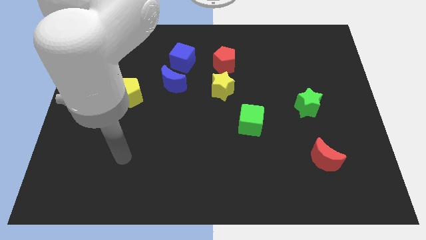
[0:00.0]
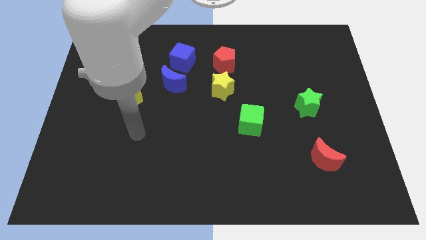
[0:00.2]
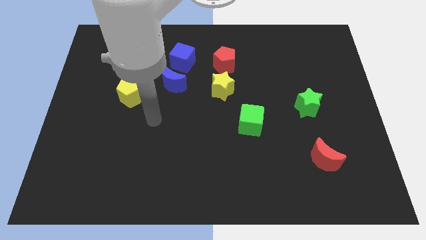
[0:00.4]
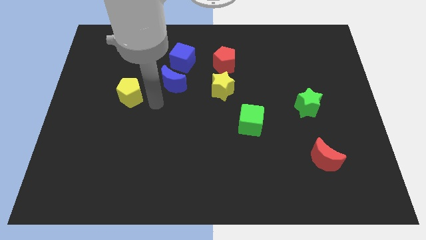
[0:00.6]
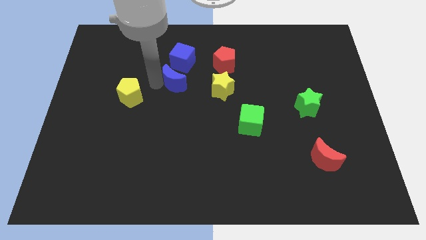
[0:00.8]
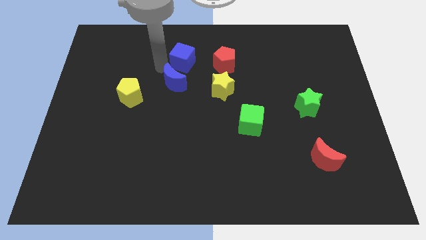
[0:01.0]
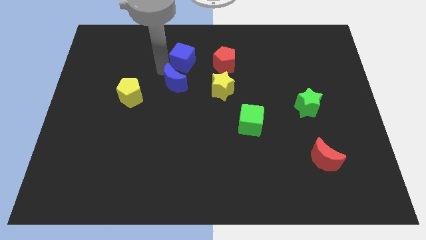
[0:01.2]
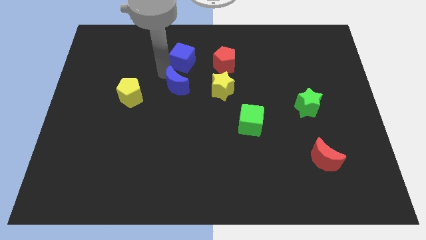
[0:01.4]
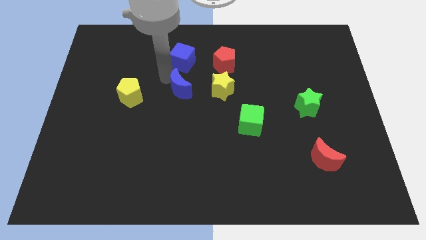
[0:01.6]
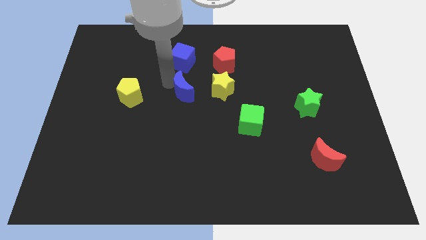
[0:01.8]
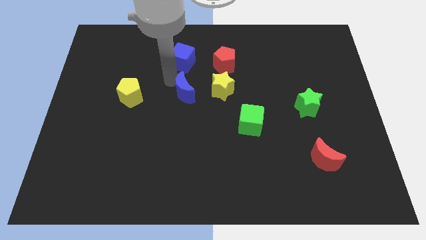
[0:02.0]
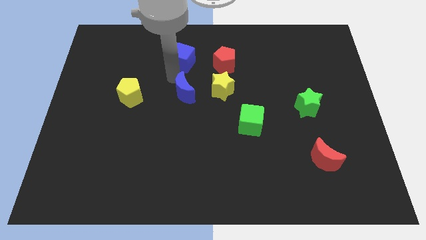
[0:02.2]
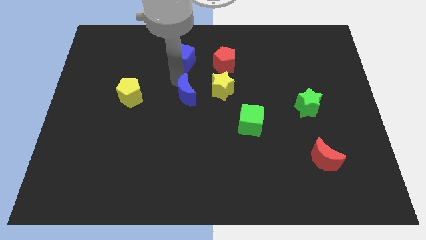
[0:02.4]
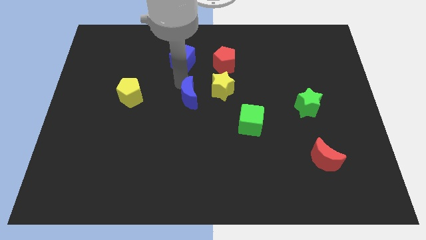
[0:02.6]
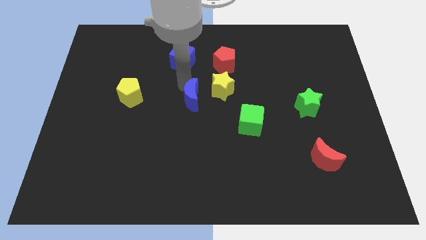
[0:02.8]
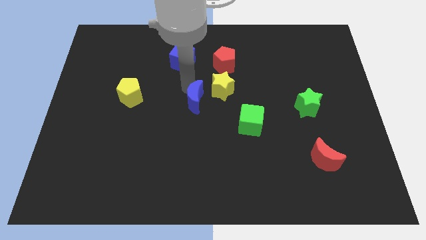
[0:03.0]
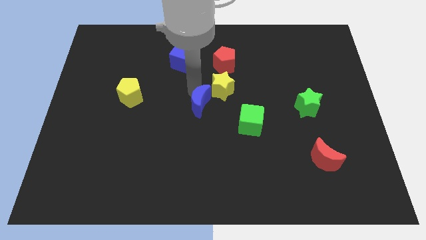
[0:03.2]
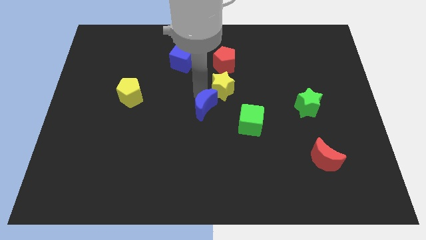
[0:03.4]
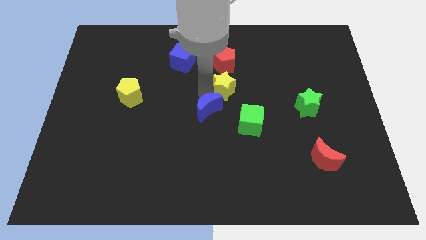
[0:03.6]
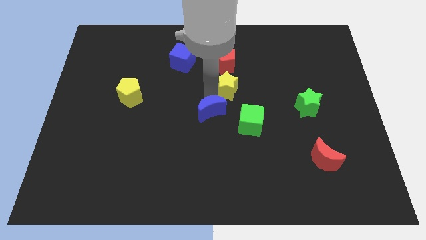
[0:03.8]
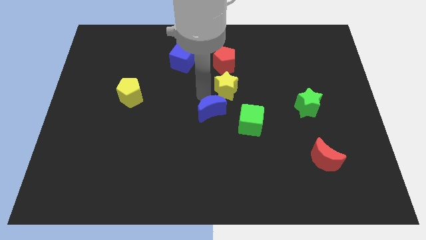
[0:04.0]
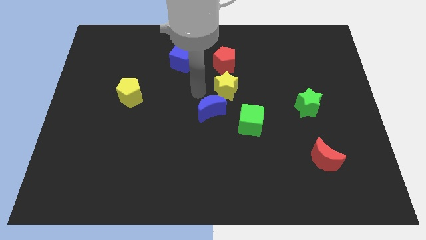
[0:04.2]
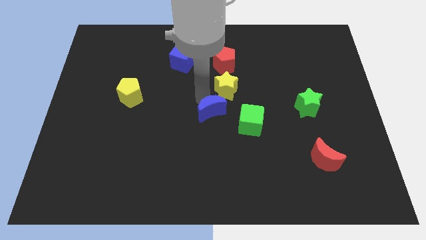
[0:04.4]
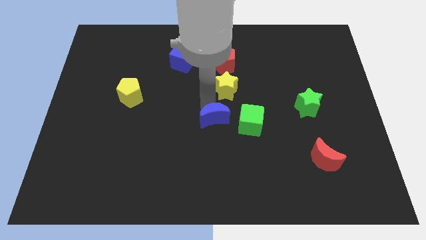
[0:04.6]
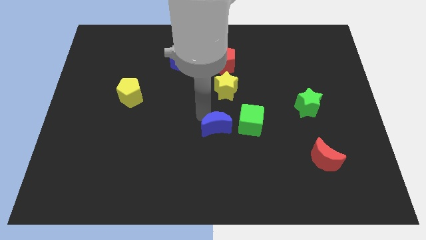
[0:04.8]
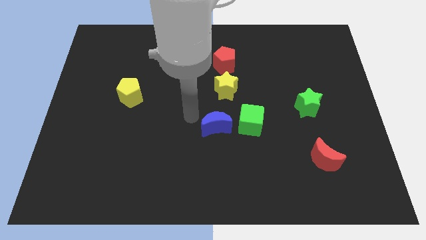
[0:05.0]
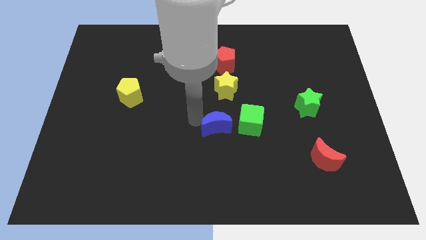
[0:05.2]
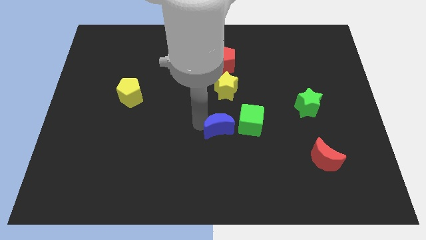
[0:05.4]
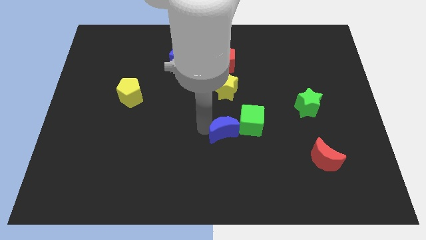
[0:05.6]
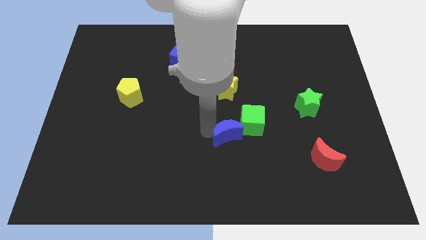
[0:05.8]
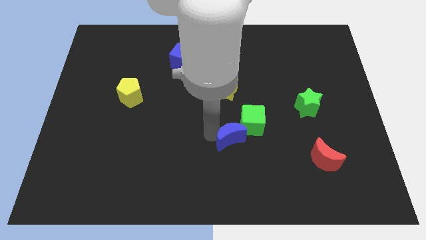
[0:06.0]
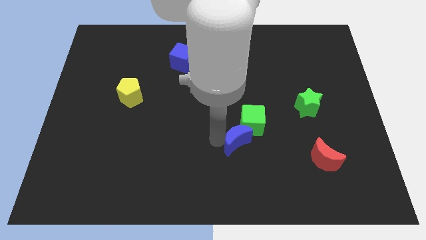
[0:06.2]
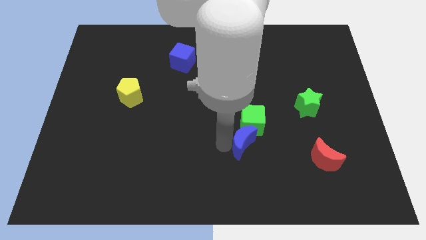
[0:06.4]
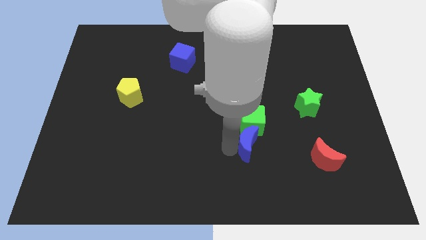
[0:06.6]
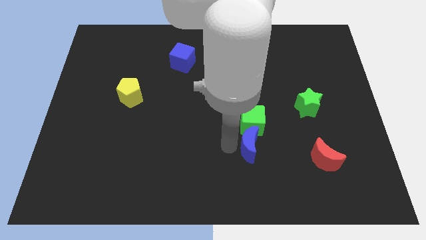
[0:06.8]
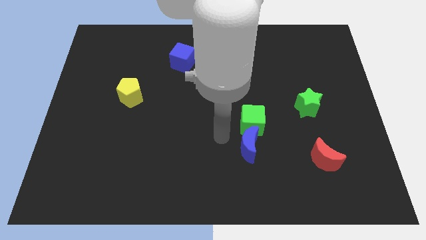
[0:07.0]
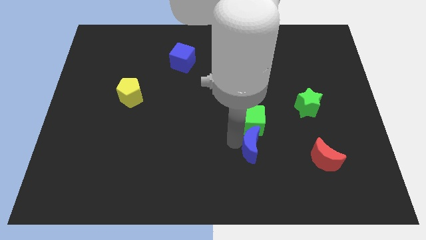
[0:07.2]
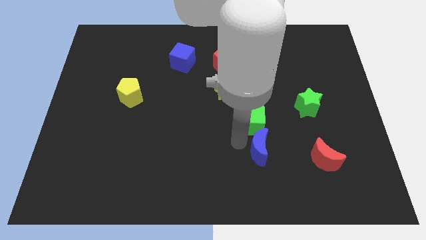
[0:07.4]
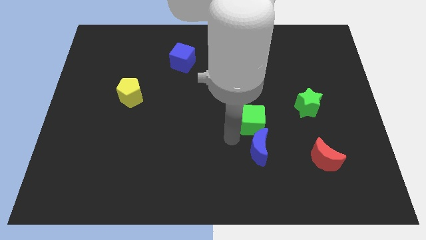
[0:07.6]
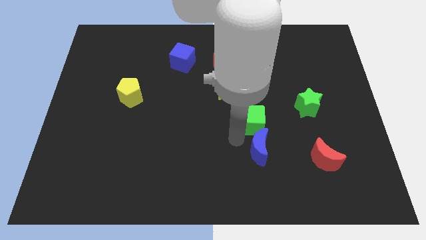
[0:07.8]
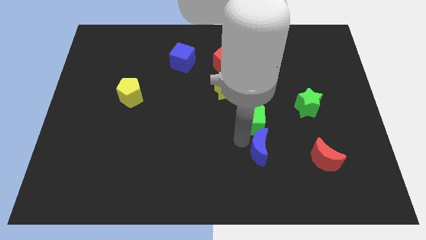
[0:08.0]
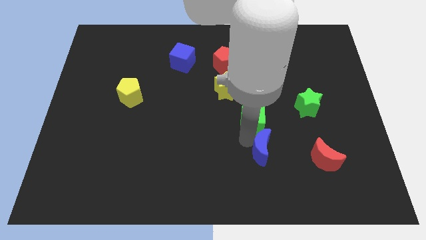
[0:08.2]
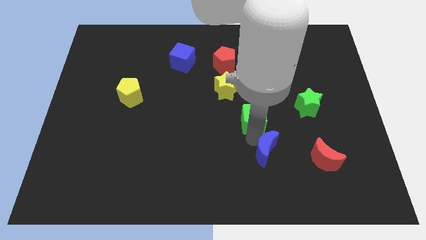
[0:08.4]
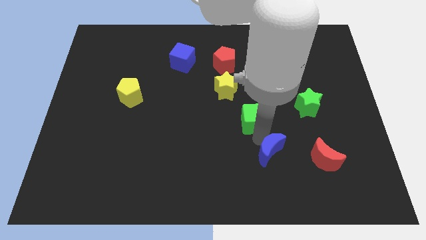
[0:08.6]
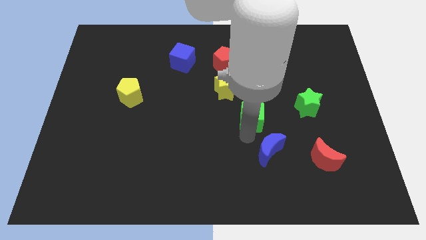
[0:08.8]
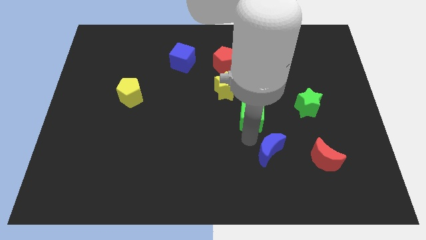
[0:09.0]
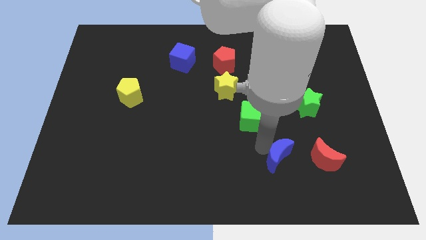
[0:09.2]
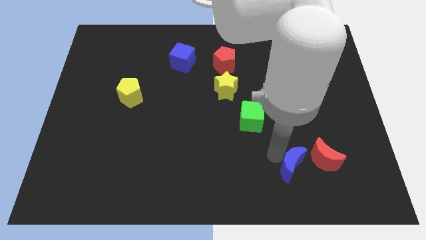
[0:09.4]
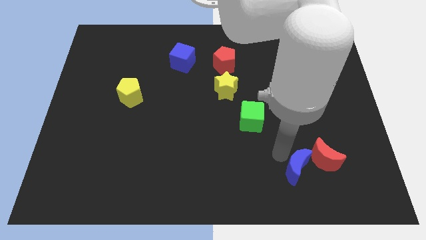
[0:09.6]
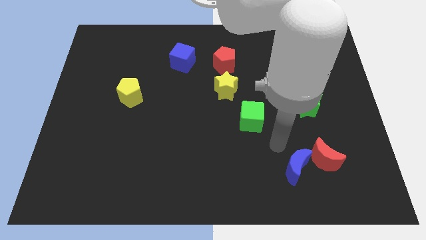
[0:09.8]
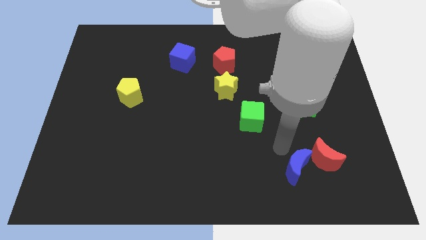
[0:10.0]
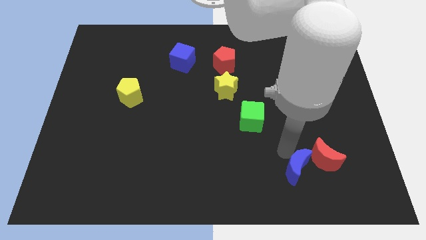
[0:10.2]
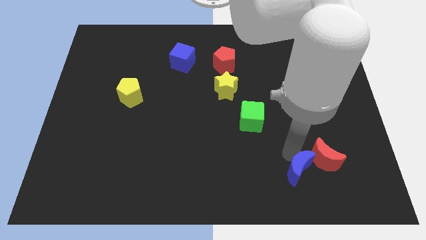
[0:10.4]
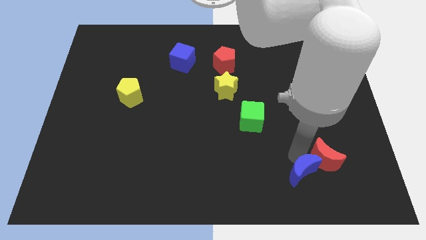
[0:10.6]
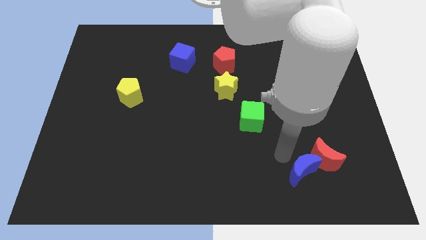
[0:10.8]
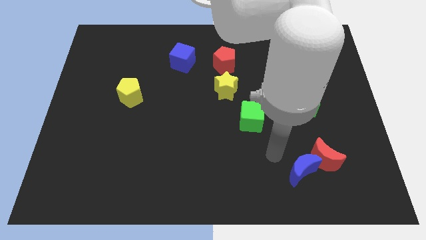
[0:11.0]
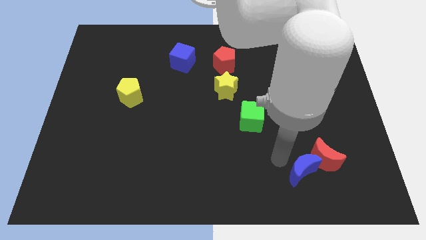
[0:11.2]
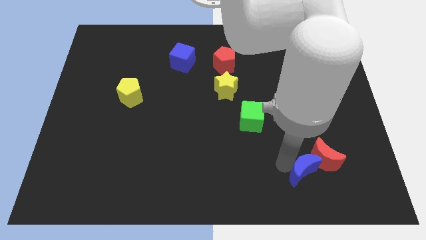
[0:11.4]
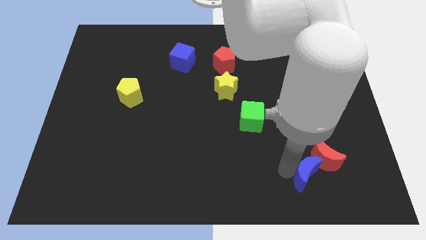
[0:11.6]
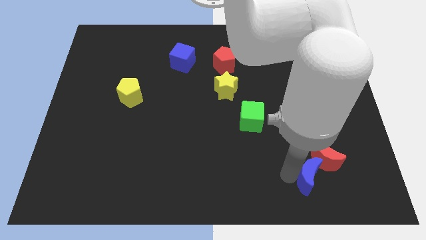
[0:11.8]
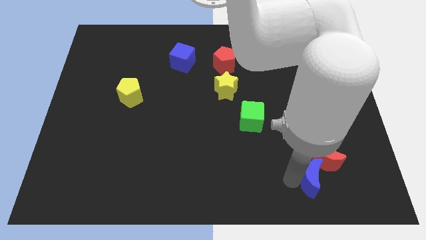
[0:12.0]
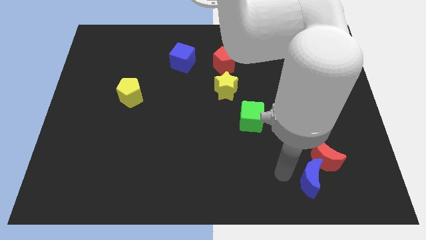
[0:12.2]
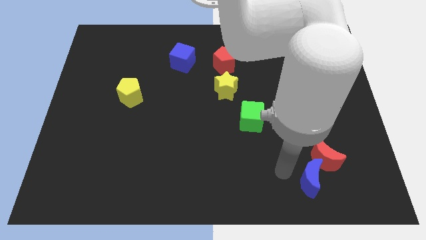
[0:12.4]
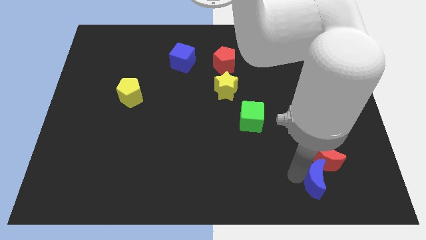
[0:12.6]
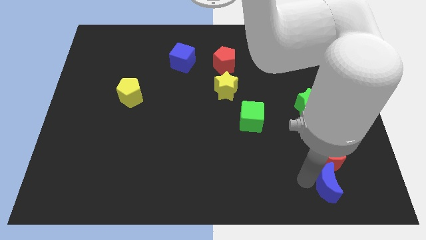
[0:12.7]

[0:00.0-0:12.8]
push the blue moon diagonally down and to the right of the red moon
